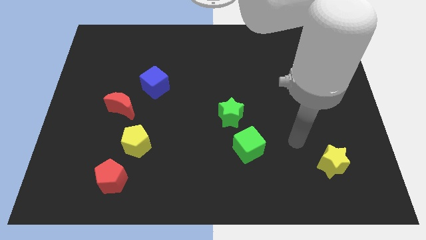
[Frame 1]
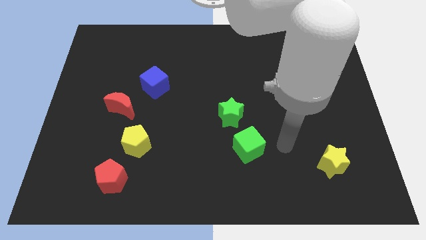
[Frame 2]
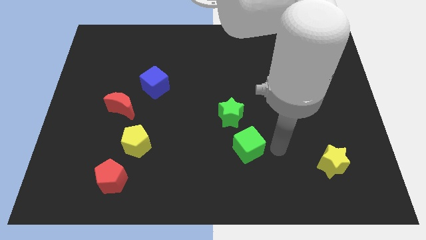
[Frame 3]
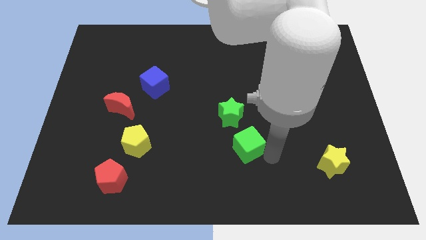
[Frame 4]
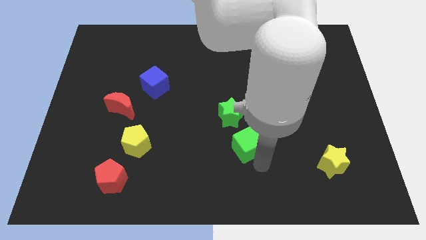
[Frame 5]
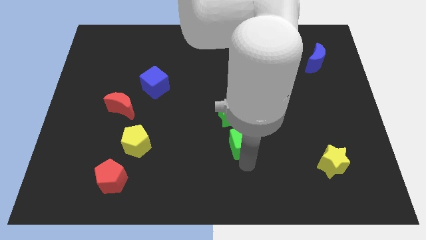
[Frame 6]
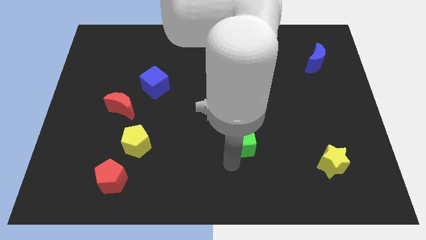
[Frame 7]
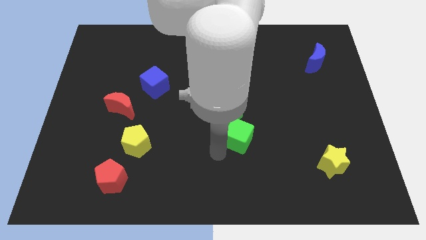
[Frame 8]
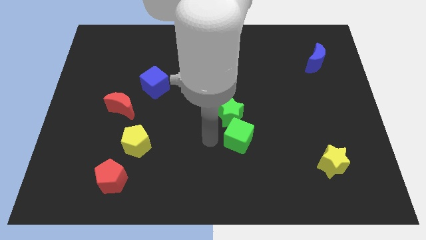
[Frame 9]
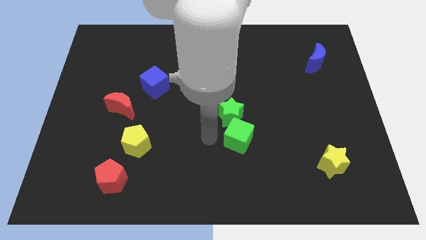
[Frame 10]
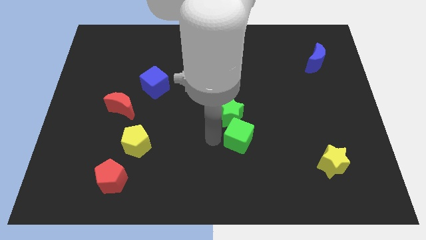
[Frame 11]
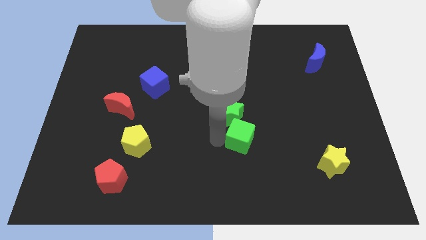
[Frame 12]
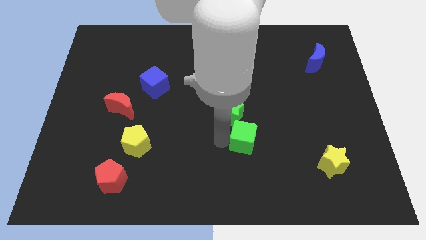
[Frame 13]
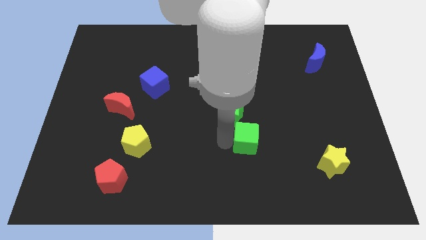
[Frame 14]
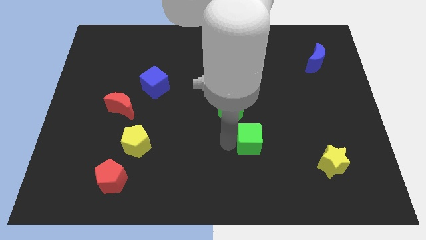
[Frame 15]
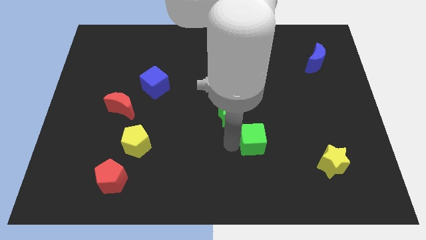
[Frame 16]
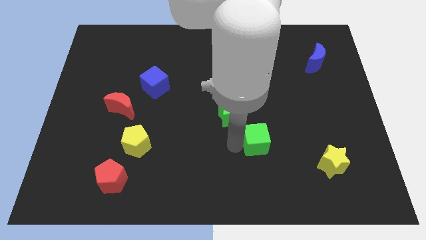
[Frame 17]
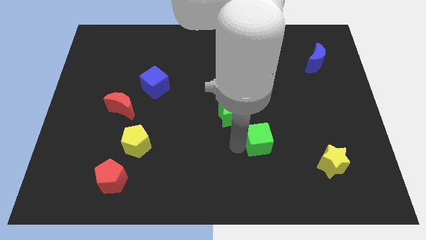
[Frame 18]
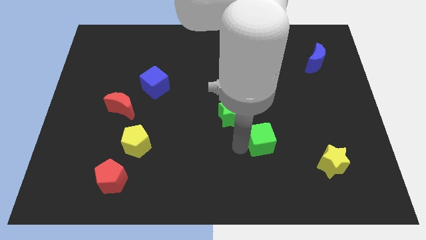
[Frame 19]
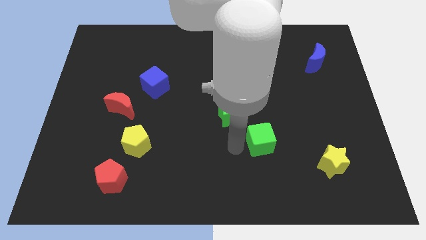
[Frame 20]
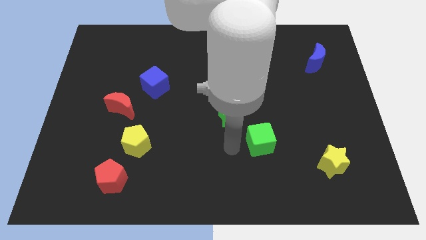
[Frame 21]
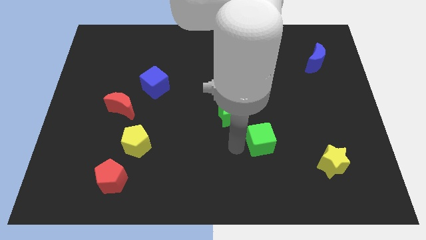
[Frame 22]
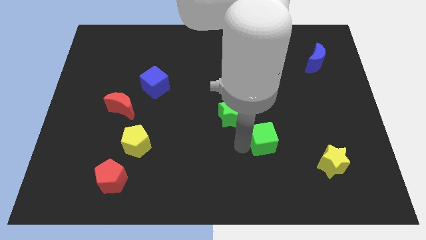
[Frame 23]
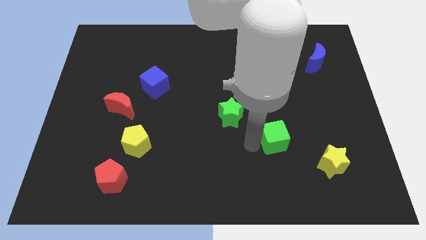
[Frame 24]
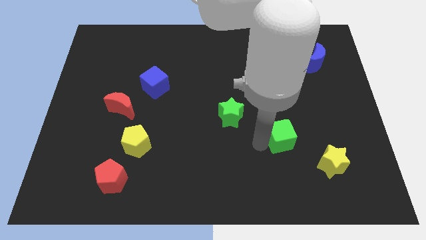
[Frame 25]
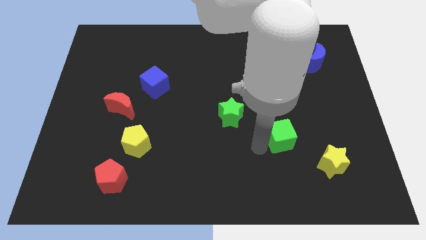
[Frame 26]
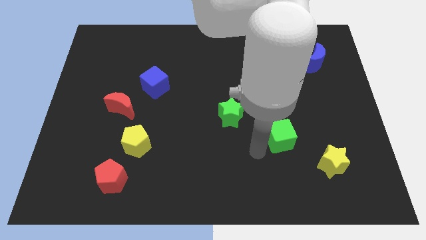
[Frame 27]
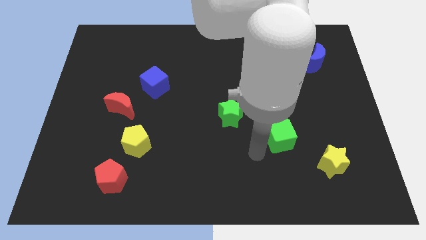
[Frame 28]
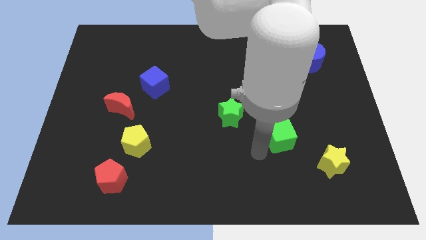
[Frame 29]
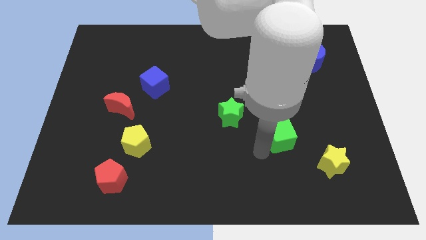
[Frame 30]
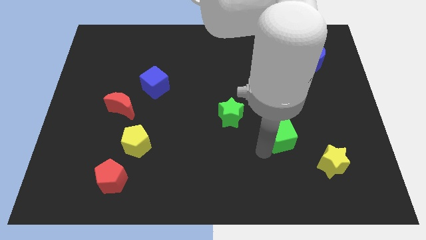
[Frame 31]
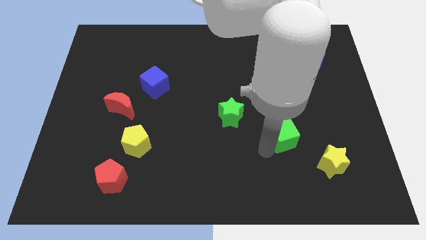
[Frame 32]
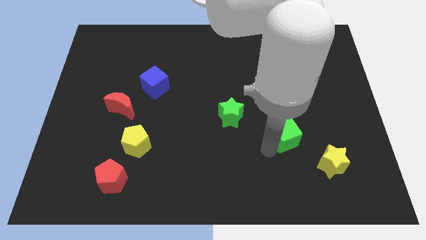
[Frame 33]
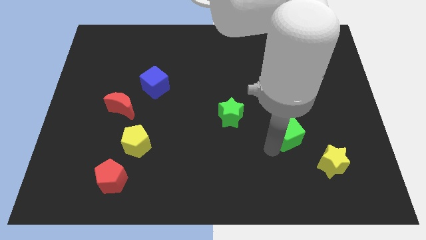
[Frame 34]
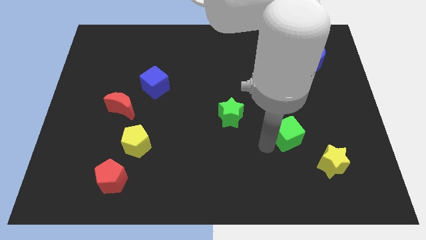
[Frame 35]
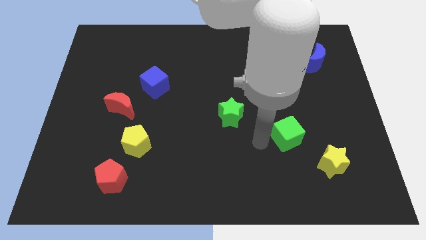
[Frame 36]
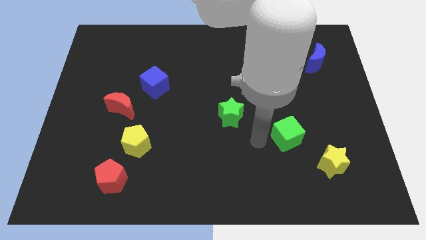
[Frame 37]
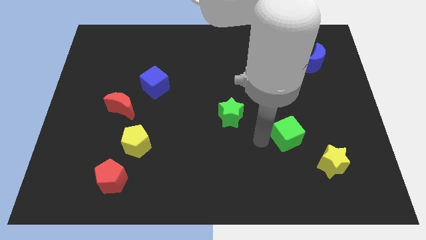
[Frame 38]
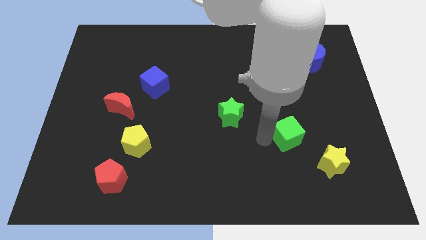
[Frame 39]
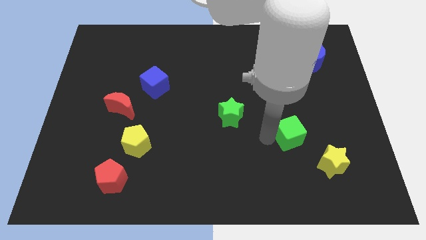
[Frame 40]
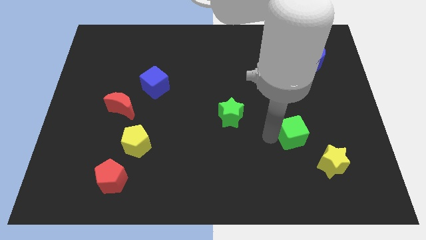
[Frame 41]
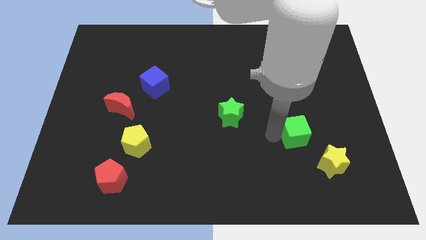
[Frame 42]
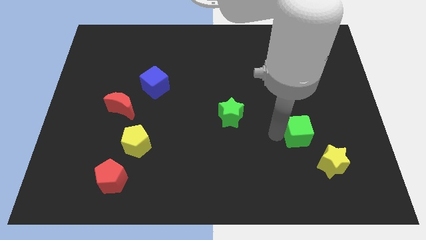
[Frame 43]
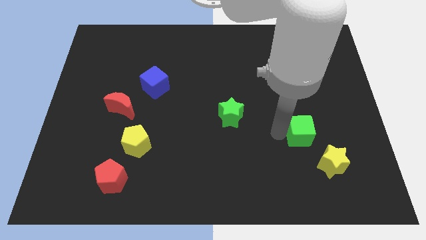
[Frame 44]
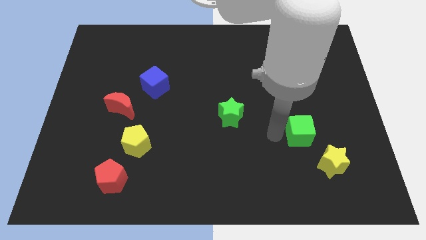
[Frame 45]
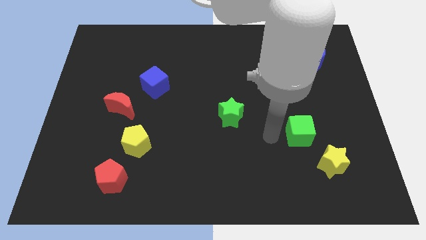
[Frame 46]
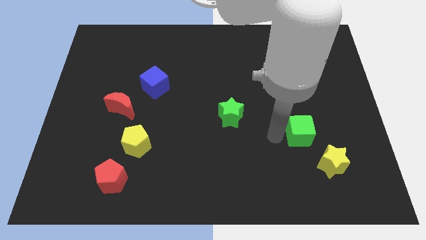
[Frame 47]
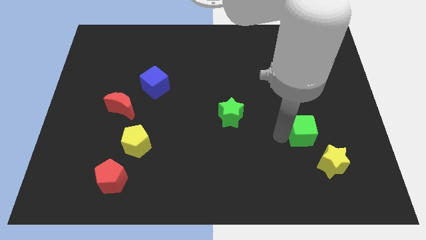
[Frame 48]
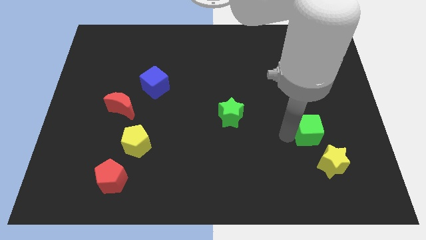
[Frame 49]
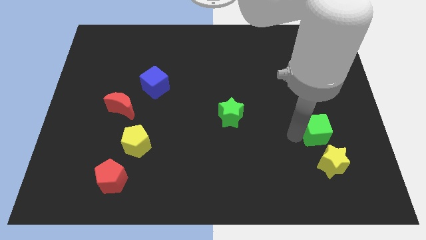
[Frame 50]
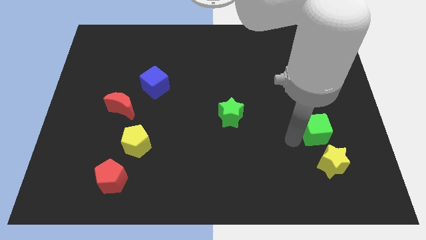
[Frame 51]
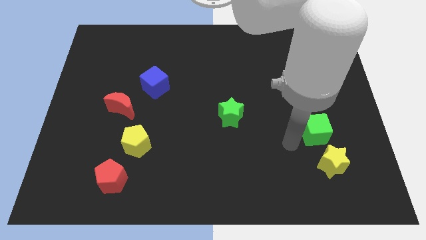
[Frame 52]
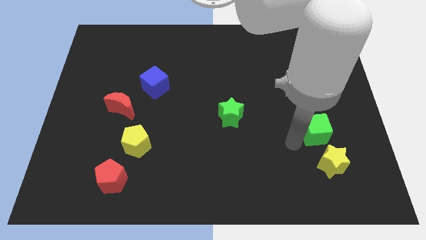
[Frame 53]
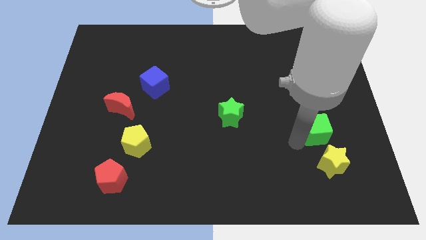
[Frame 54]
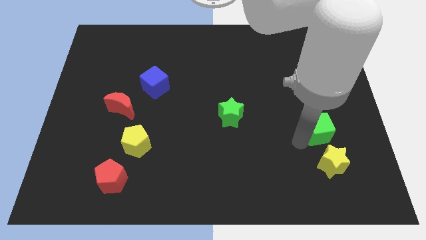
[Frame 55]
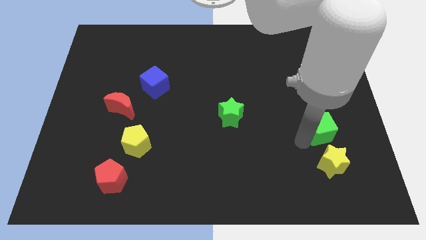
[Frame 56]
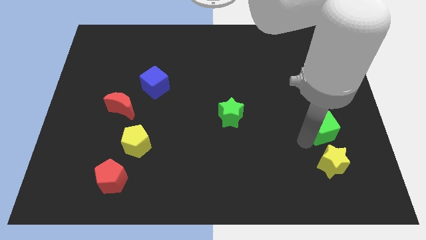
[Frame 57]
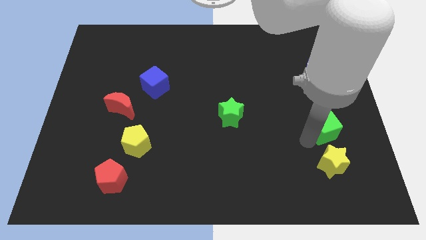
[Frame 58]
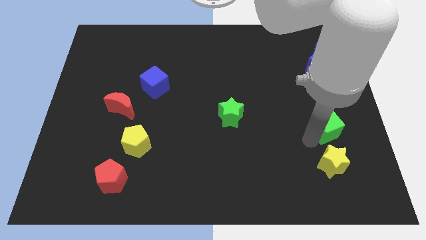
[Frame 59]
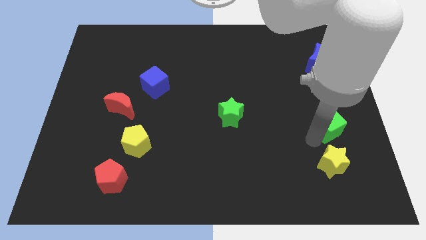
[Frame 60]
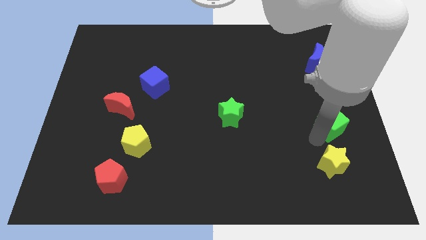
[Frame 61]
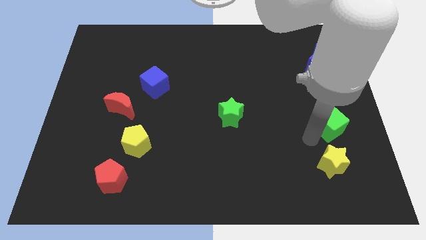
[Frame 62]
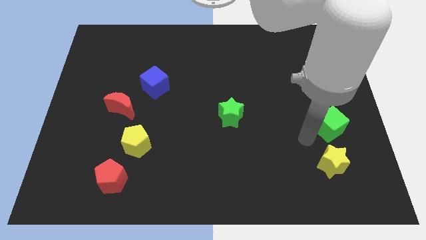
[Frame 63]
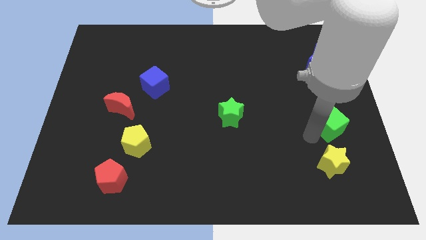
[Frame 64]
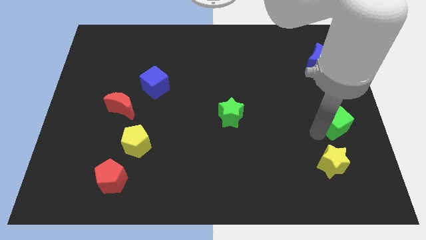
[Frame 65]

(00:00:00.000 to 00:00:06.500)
move the green cube to the right side of the board
